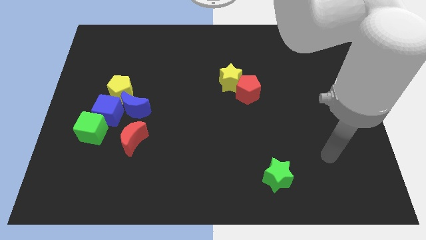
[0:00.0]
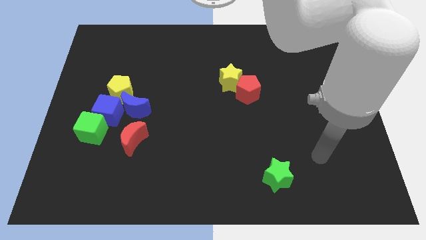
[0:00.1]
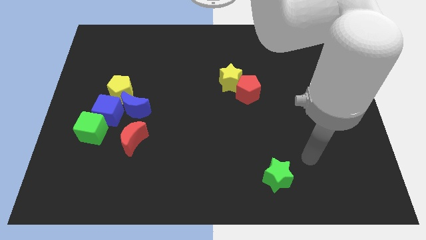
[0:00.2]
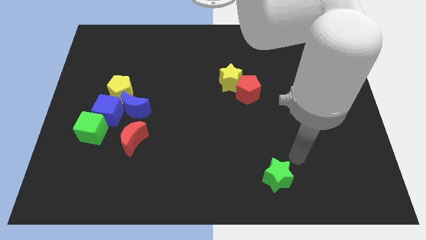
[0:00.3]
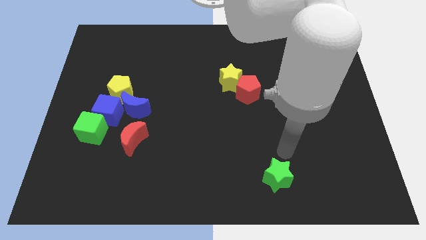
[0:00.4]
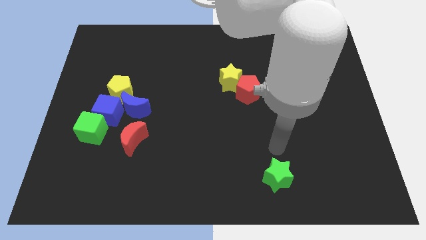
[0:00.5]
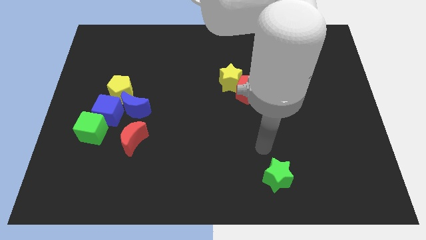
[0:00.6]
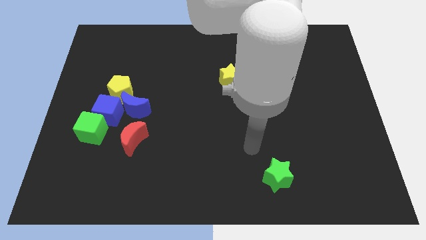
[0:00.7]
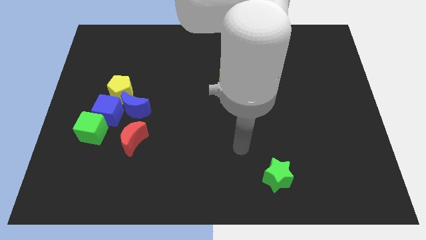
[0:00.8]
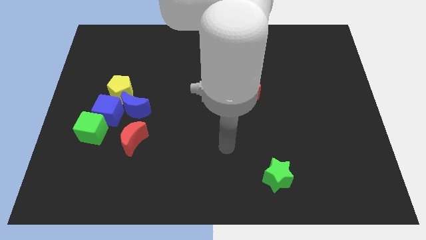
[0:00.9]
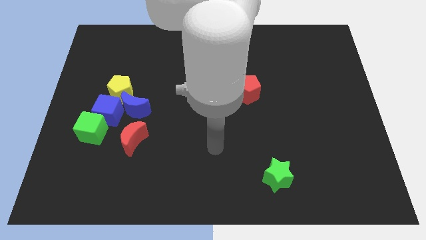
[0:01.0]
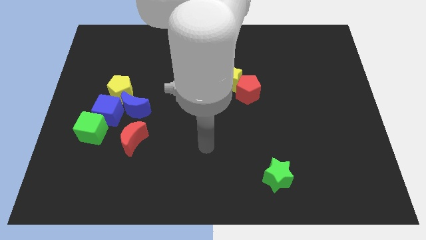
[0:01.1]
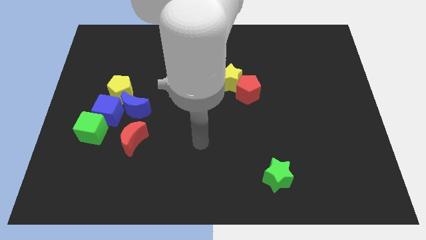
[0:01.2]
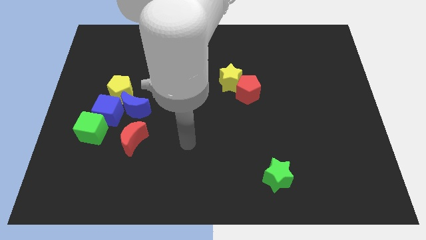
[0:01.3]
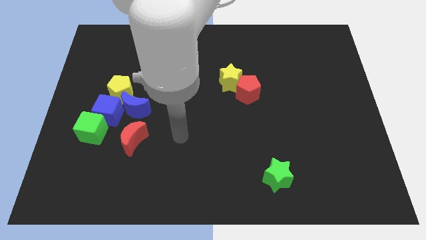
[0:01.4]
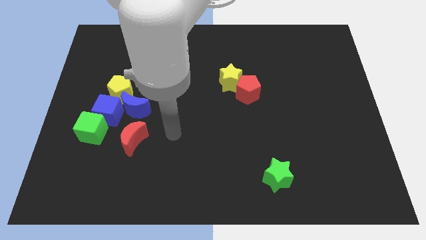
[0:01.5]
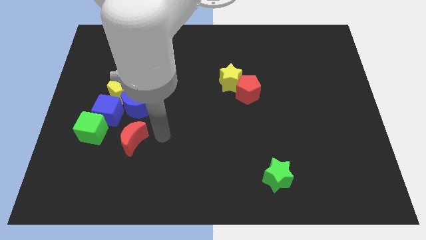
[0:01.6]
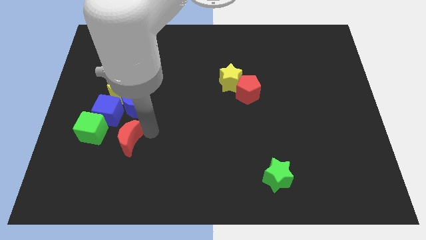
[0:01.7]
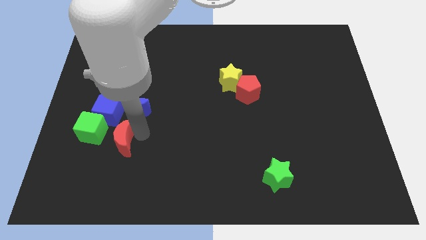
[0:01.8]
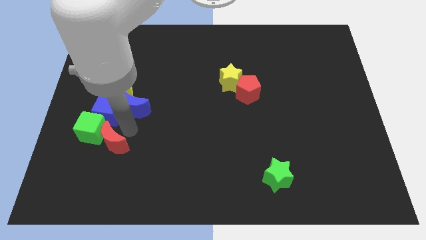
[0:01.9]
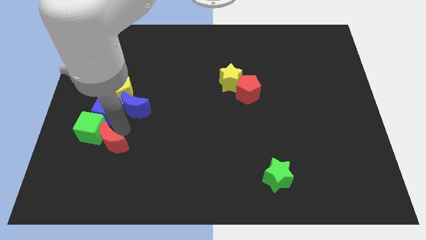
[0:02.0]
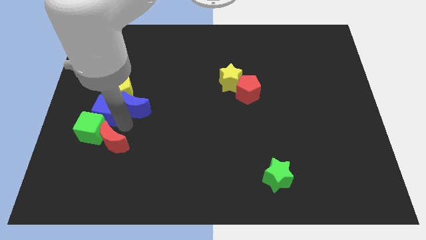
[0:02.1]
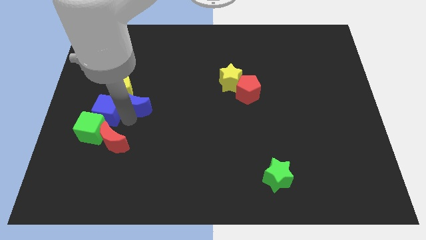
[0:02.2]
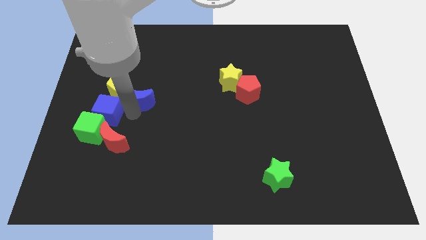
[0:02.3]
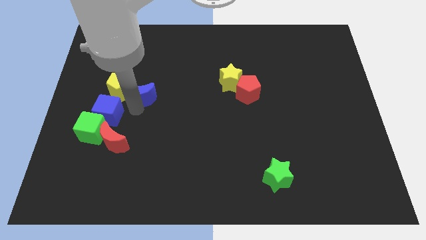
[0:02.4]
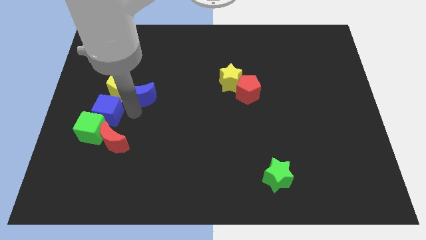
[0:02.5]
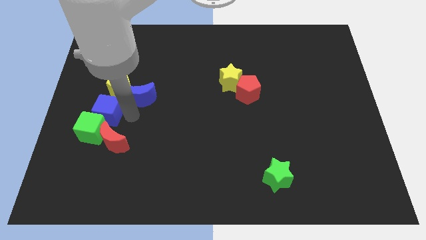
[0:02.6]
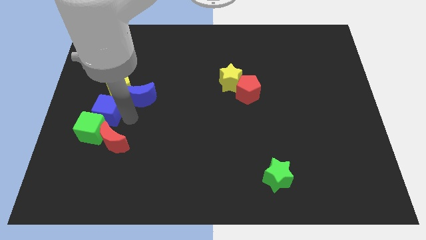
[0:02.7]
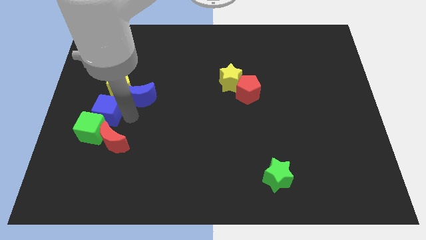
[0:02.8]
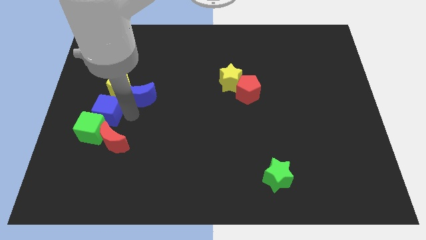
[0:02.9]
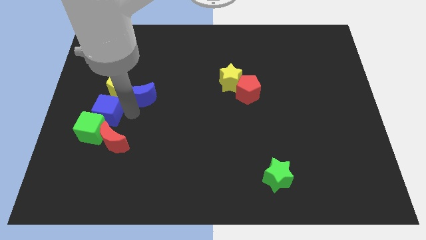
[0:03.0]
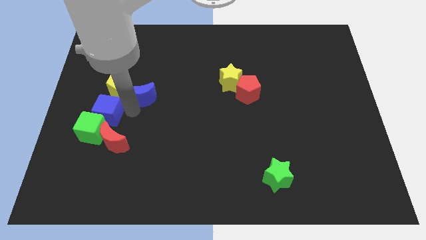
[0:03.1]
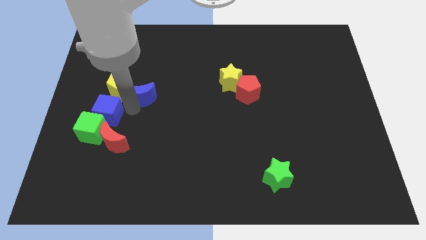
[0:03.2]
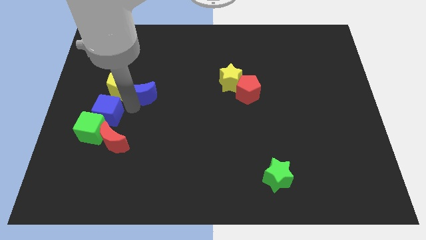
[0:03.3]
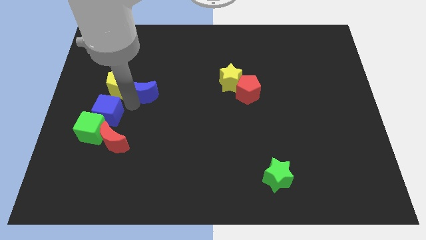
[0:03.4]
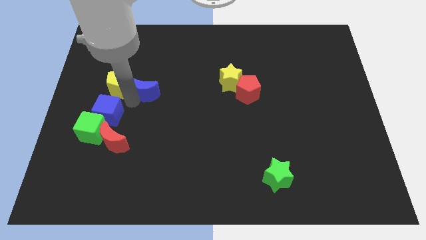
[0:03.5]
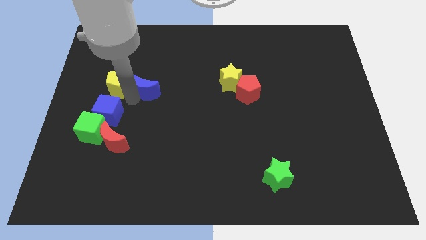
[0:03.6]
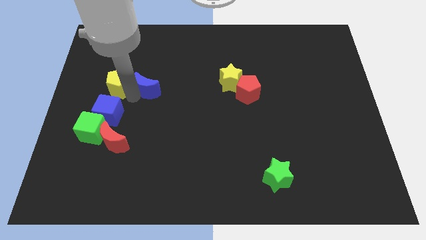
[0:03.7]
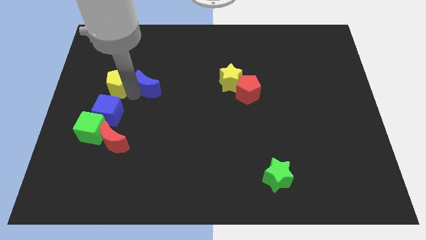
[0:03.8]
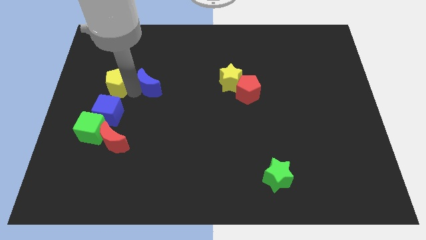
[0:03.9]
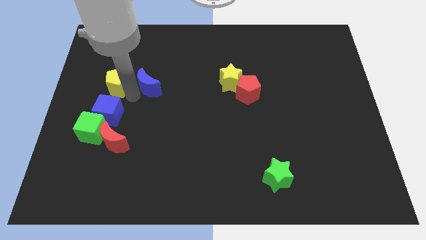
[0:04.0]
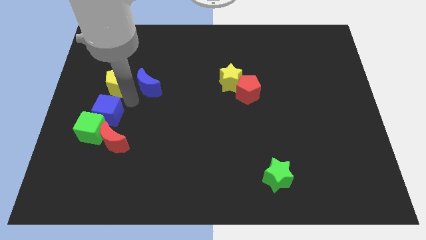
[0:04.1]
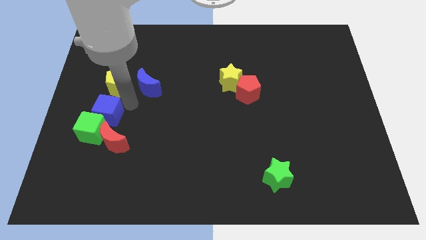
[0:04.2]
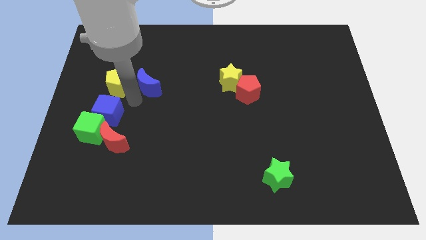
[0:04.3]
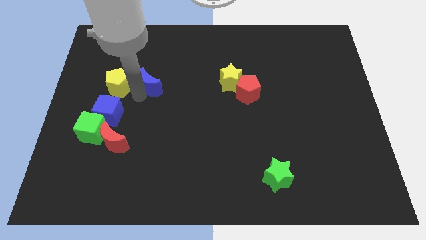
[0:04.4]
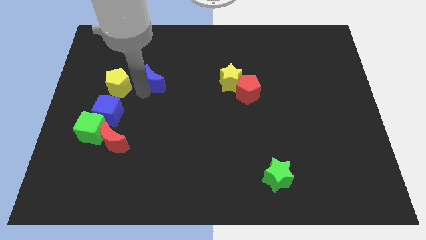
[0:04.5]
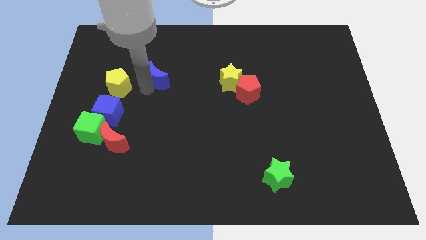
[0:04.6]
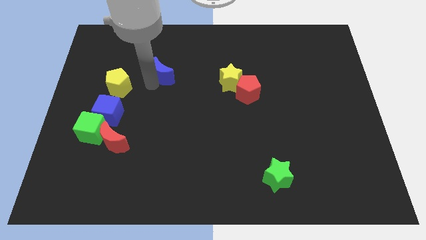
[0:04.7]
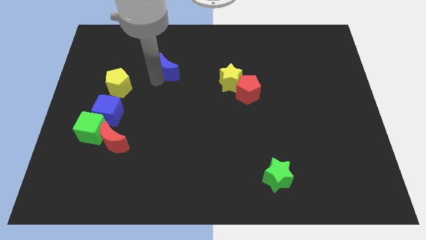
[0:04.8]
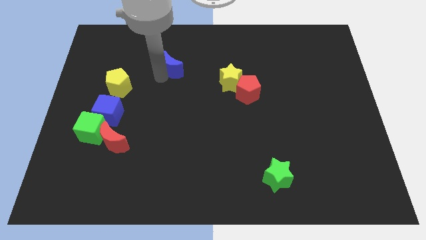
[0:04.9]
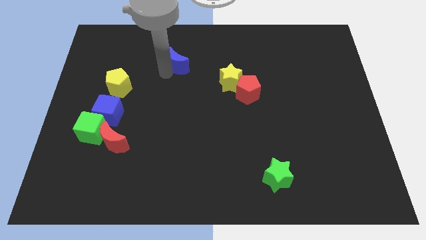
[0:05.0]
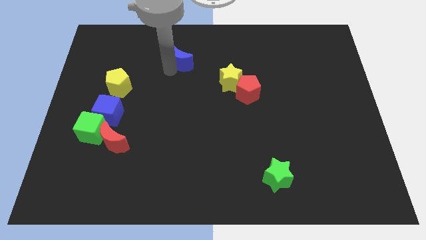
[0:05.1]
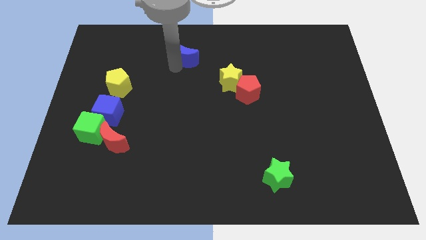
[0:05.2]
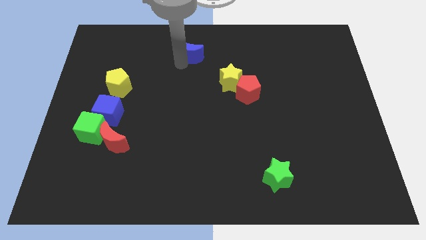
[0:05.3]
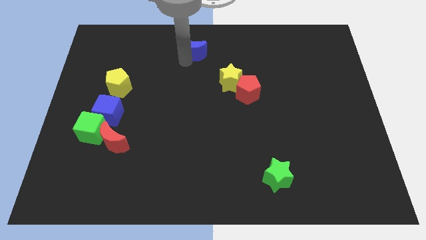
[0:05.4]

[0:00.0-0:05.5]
push the blue moon to the top
